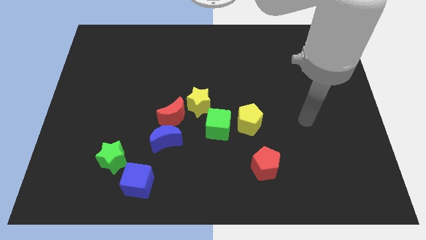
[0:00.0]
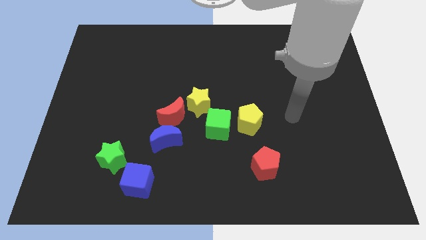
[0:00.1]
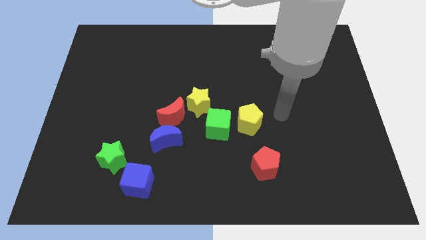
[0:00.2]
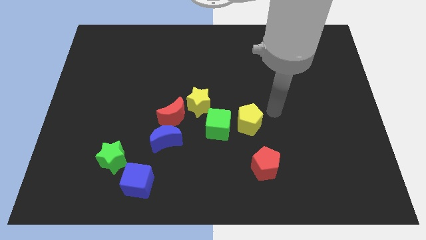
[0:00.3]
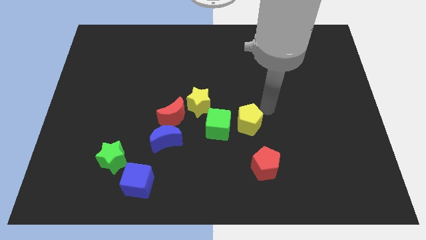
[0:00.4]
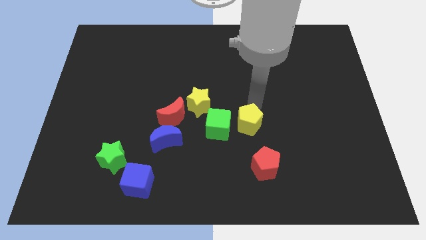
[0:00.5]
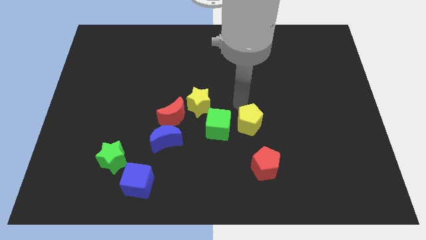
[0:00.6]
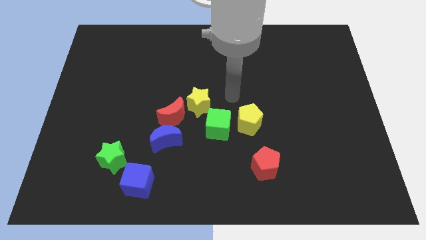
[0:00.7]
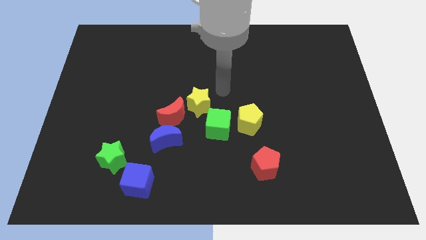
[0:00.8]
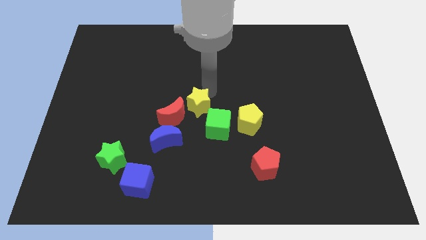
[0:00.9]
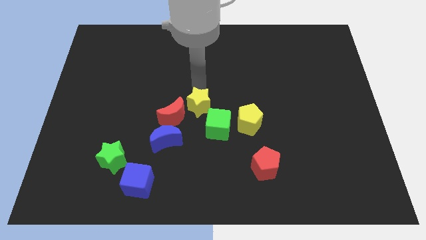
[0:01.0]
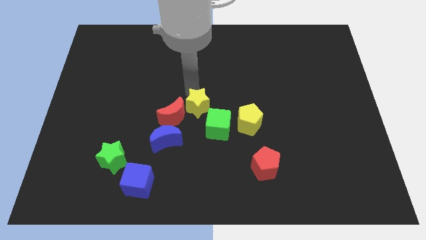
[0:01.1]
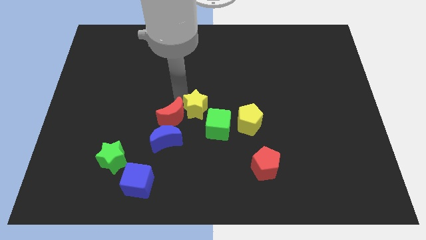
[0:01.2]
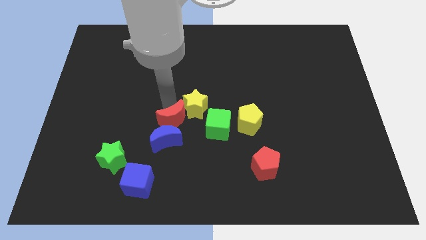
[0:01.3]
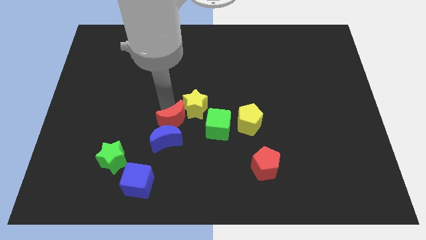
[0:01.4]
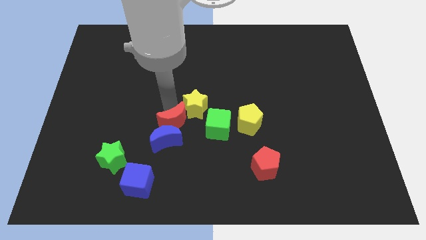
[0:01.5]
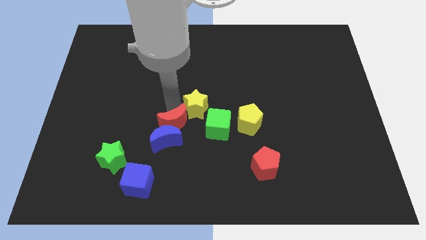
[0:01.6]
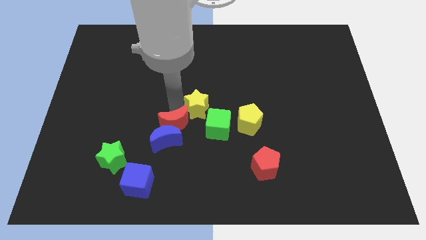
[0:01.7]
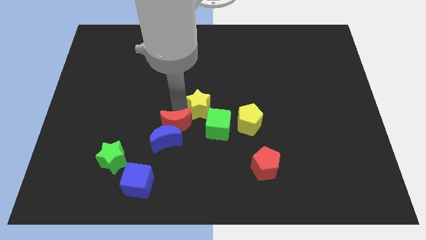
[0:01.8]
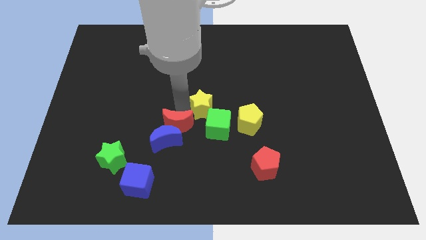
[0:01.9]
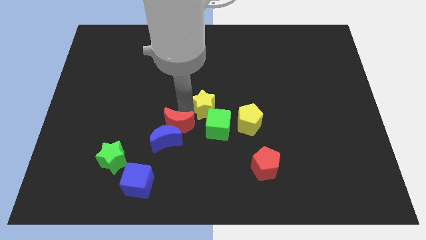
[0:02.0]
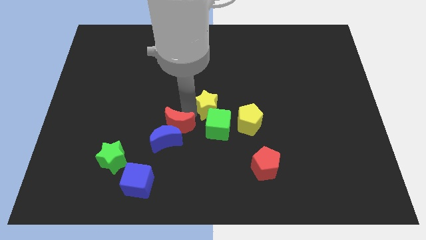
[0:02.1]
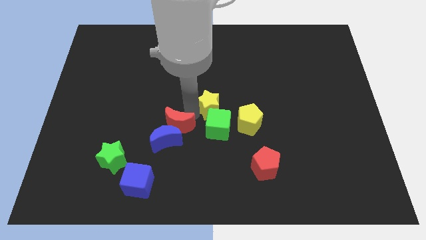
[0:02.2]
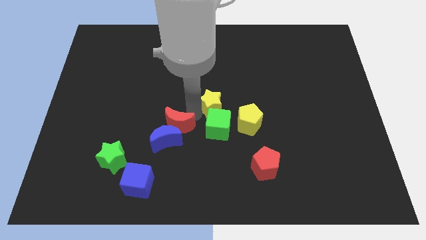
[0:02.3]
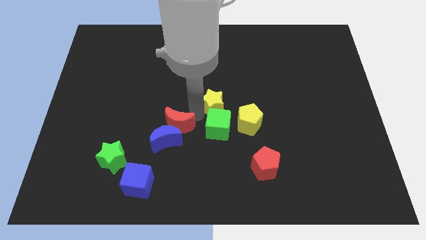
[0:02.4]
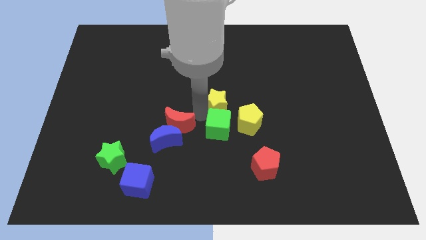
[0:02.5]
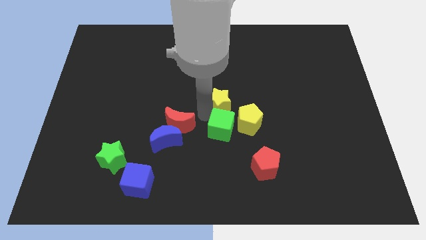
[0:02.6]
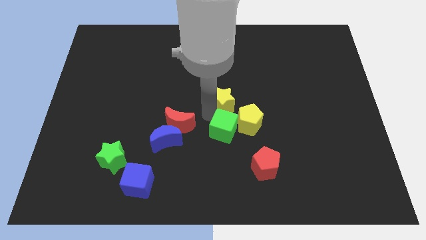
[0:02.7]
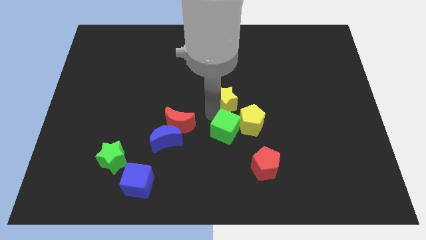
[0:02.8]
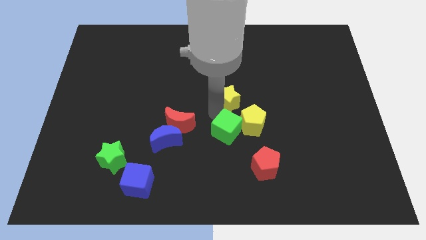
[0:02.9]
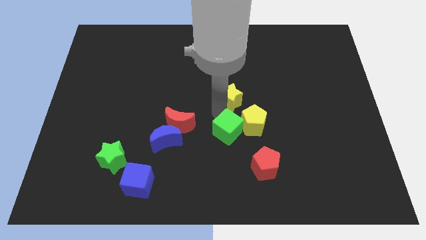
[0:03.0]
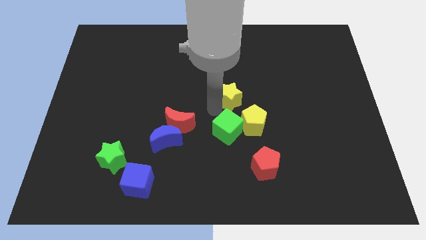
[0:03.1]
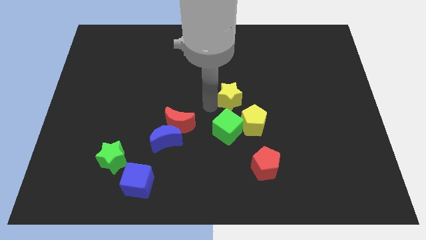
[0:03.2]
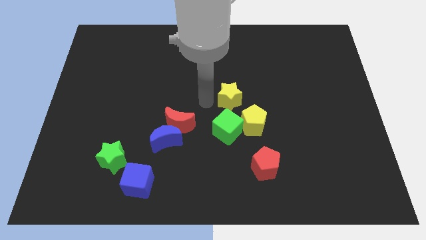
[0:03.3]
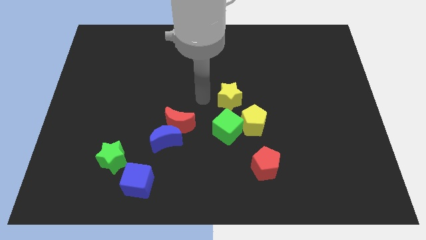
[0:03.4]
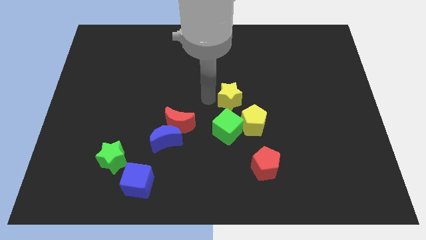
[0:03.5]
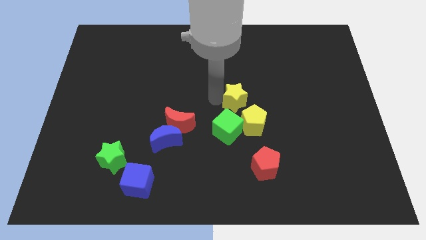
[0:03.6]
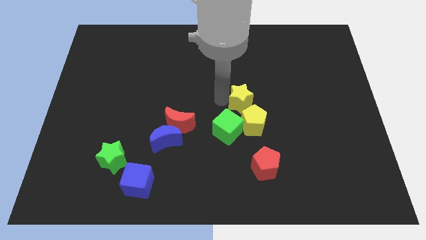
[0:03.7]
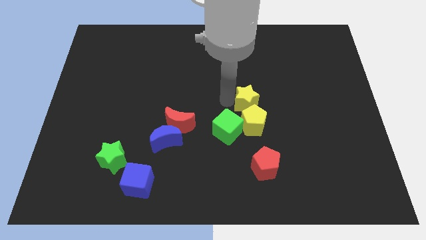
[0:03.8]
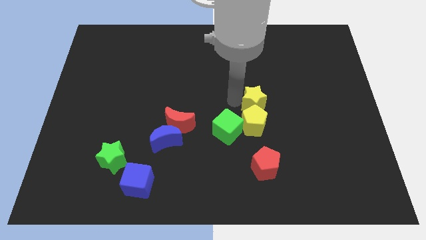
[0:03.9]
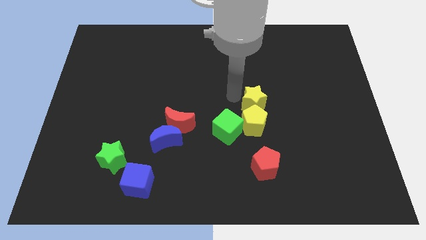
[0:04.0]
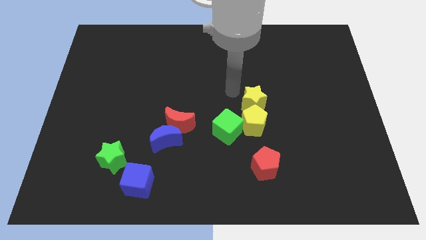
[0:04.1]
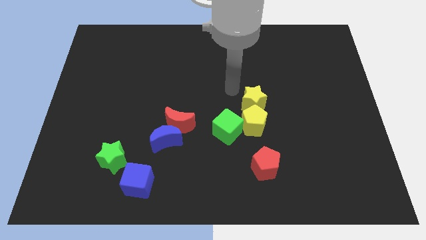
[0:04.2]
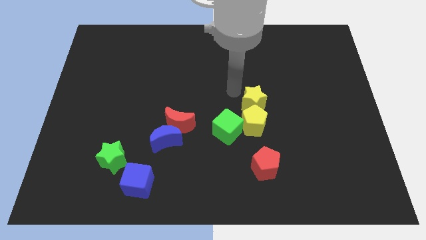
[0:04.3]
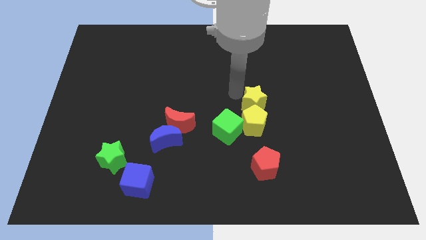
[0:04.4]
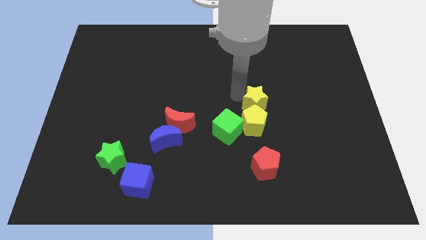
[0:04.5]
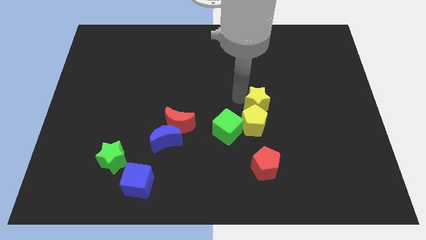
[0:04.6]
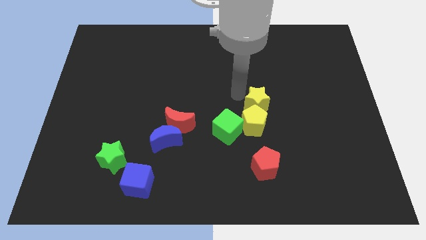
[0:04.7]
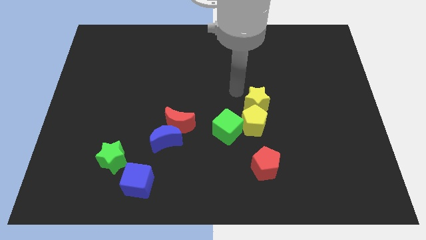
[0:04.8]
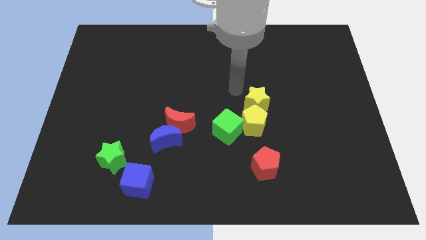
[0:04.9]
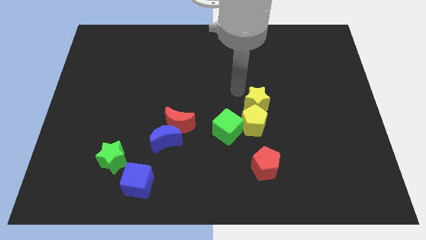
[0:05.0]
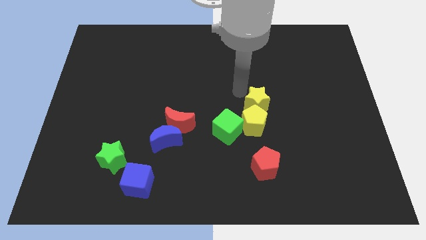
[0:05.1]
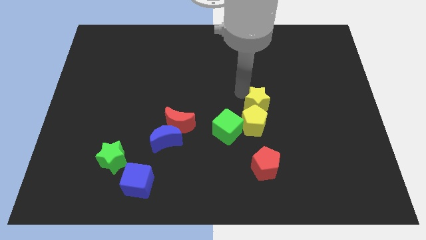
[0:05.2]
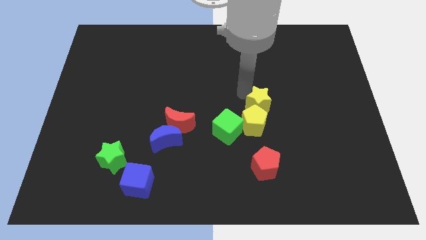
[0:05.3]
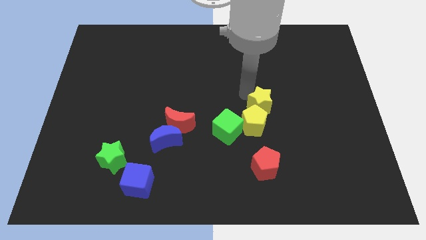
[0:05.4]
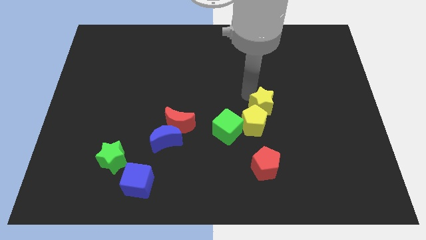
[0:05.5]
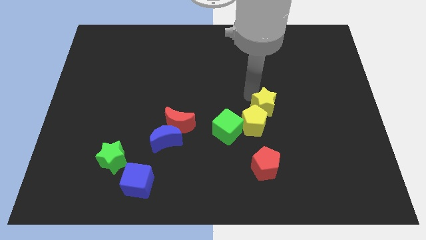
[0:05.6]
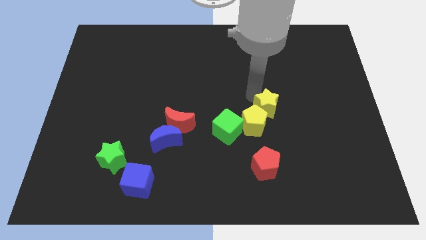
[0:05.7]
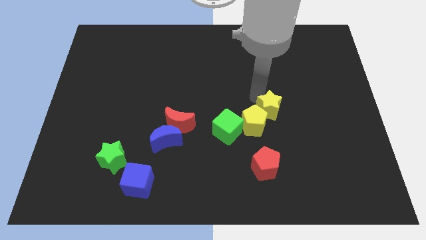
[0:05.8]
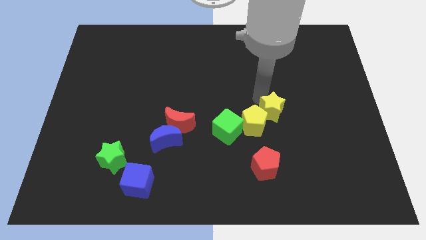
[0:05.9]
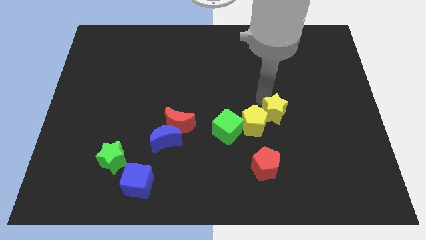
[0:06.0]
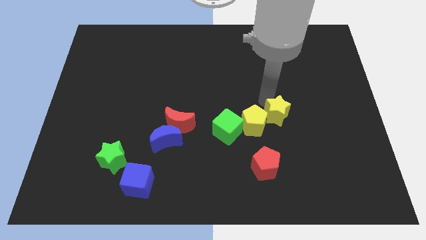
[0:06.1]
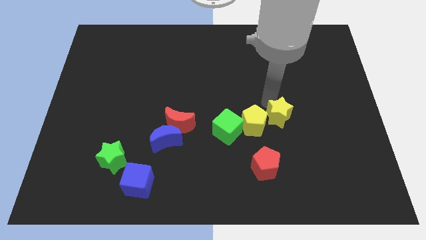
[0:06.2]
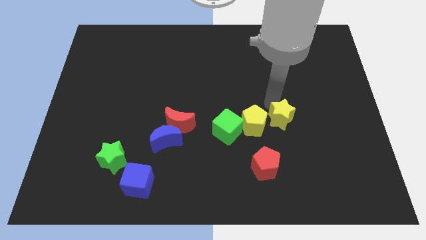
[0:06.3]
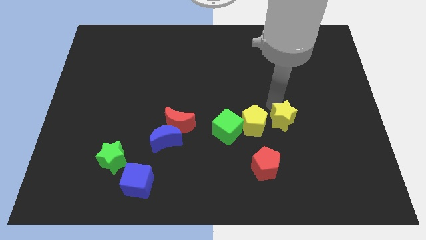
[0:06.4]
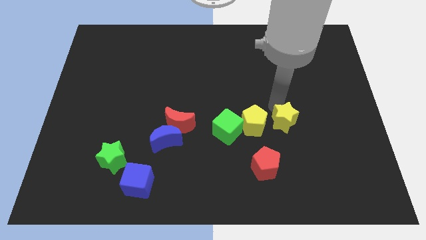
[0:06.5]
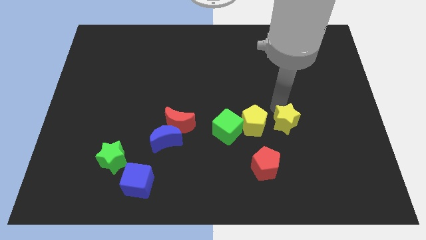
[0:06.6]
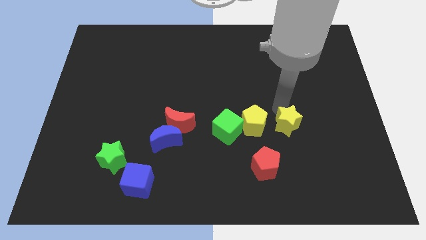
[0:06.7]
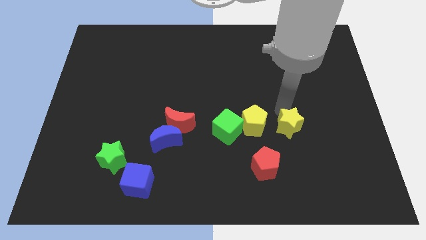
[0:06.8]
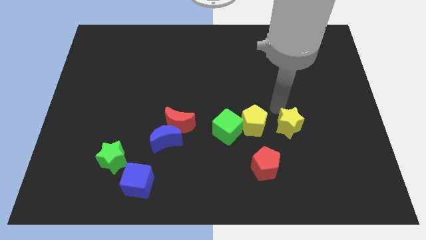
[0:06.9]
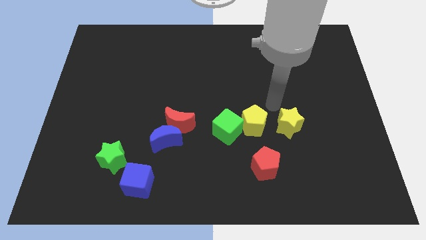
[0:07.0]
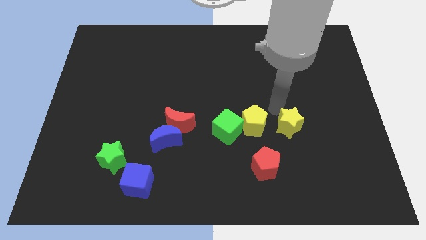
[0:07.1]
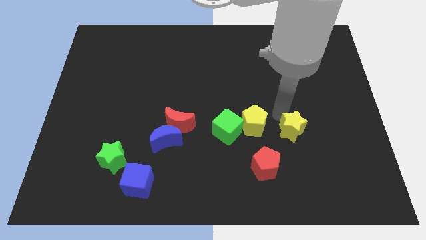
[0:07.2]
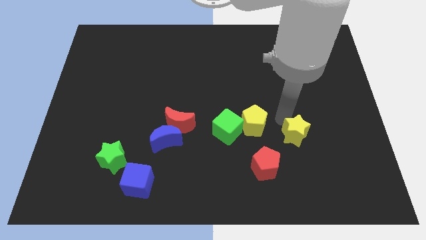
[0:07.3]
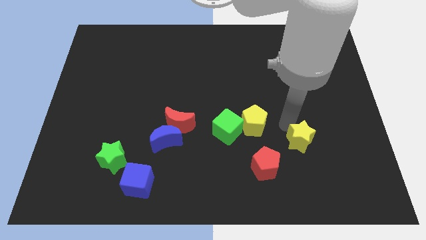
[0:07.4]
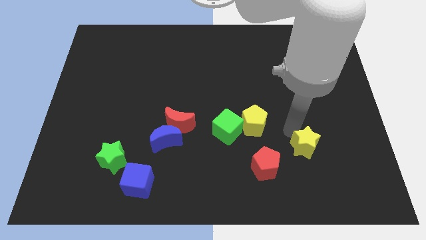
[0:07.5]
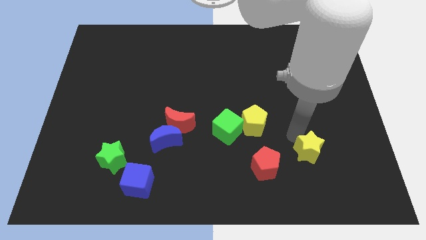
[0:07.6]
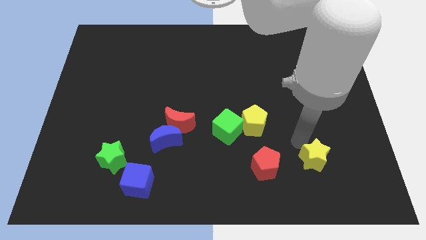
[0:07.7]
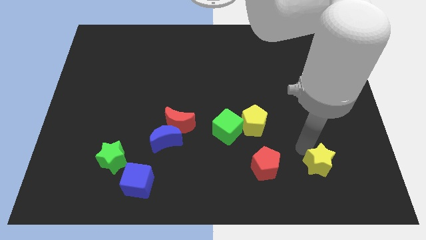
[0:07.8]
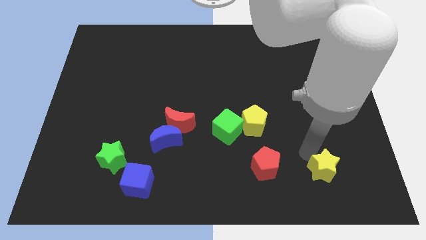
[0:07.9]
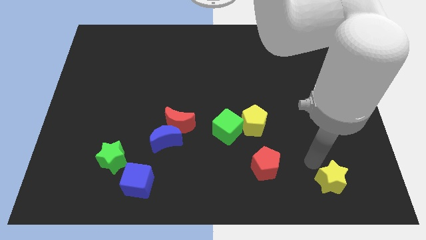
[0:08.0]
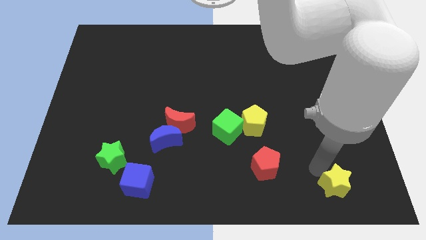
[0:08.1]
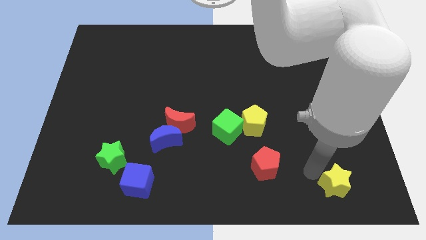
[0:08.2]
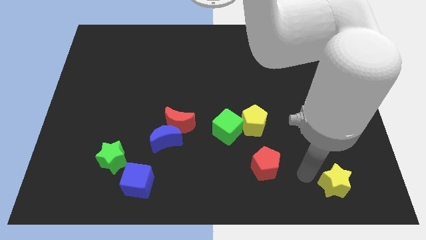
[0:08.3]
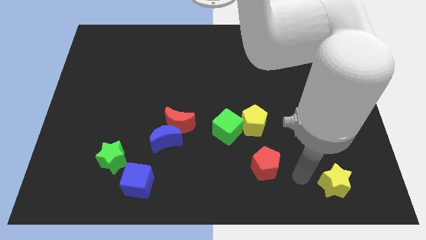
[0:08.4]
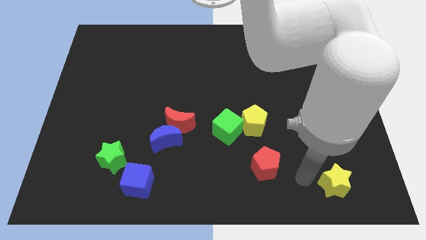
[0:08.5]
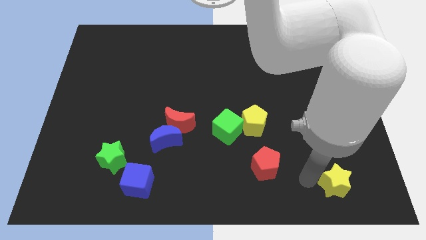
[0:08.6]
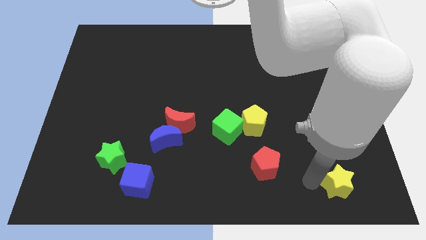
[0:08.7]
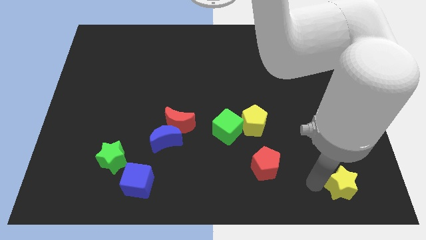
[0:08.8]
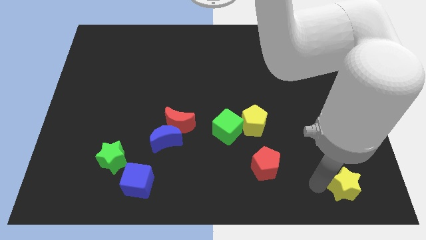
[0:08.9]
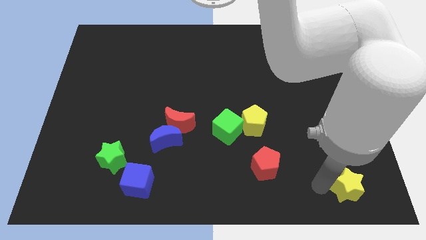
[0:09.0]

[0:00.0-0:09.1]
move the yellow star to the bottom right
